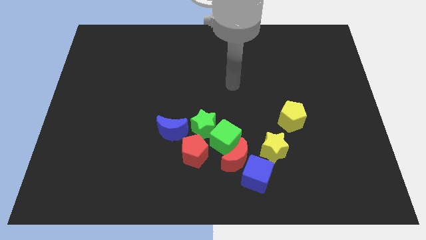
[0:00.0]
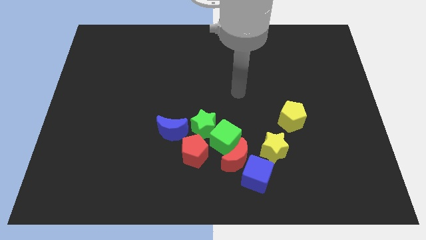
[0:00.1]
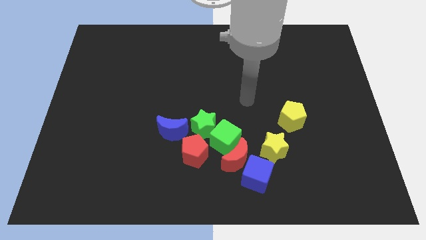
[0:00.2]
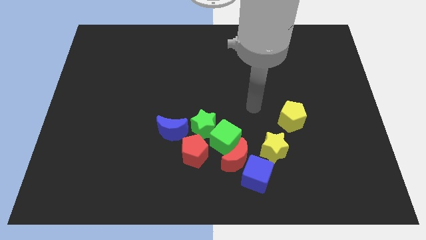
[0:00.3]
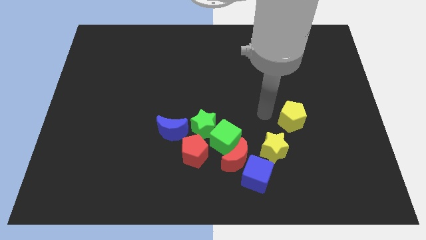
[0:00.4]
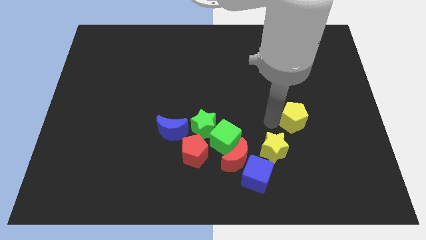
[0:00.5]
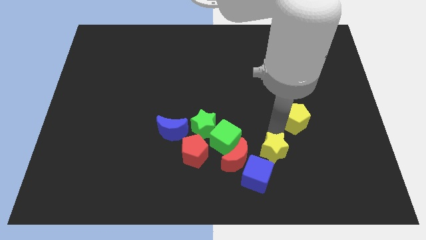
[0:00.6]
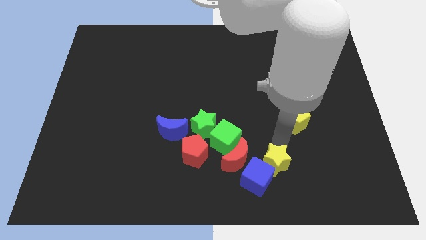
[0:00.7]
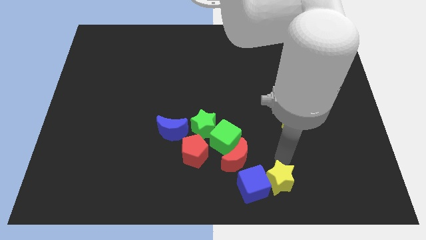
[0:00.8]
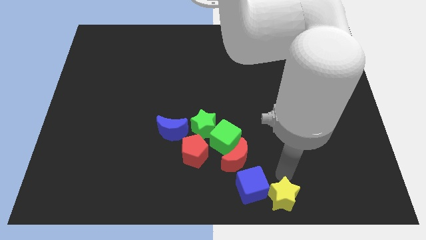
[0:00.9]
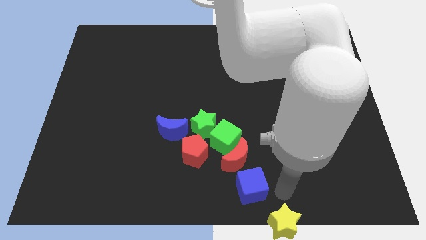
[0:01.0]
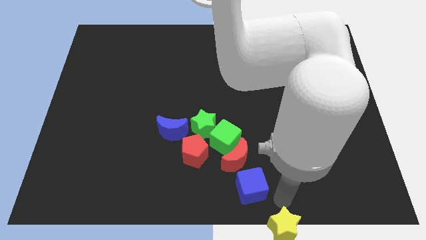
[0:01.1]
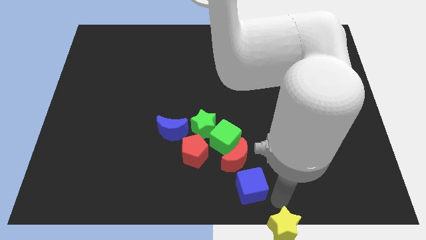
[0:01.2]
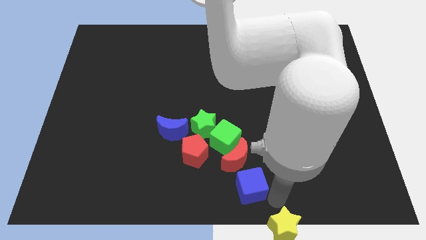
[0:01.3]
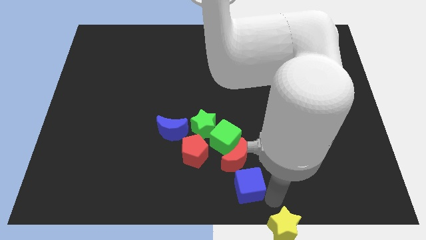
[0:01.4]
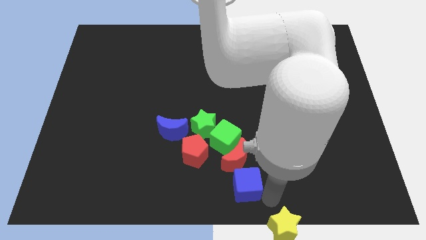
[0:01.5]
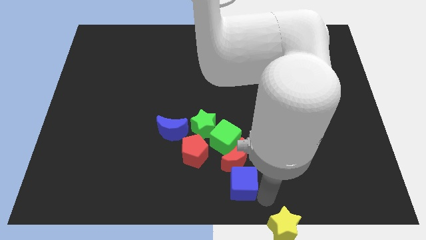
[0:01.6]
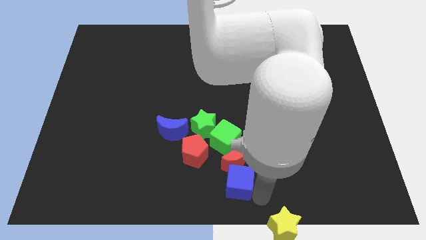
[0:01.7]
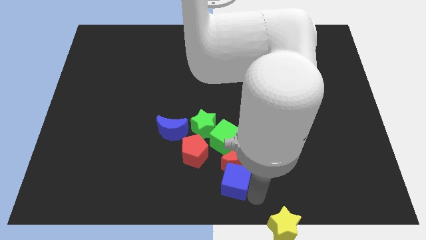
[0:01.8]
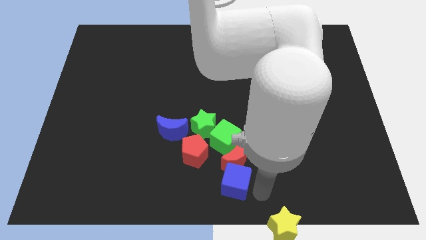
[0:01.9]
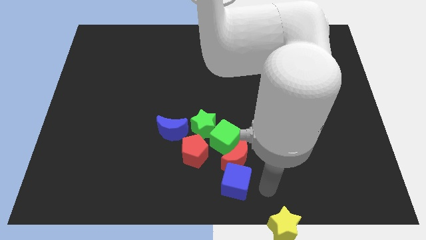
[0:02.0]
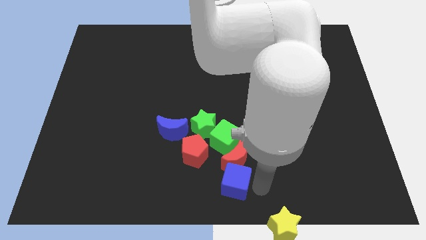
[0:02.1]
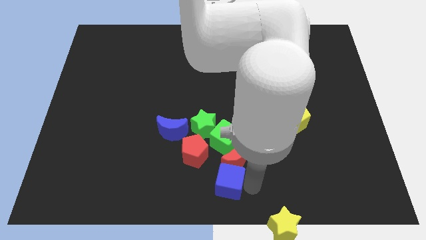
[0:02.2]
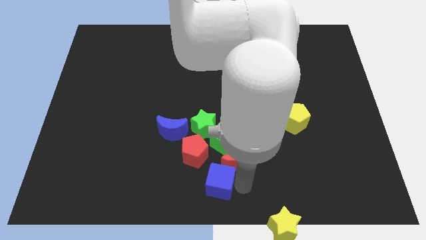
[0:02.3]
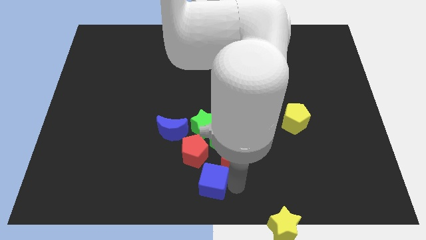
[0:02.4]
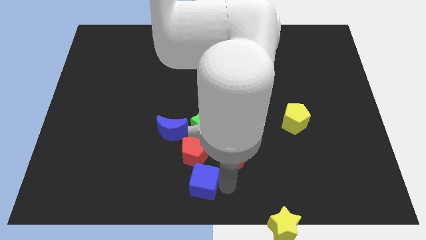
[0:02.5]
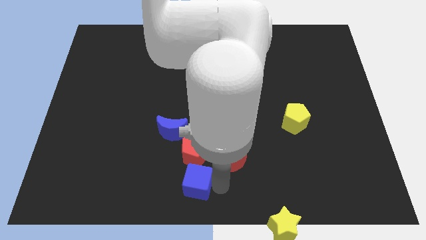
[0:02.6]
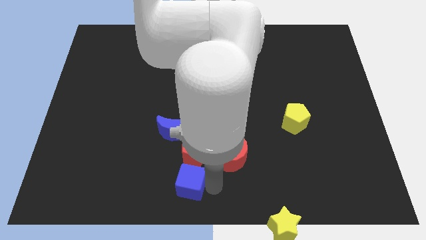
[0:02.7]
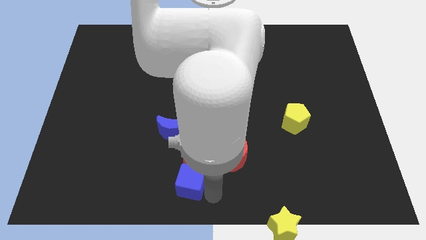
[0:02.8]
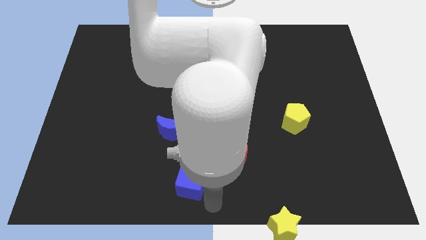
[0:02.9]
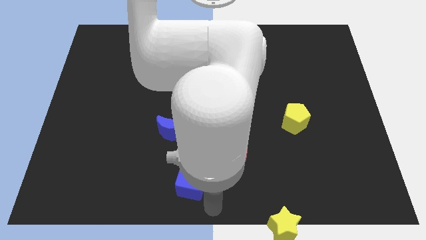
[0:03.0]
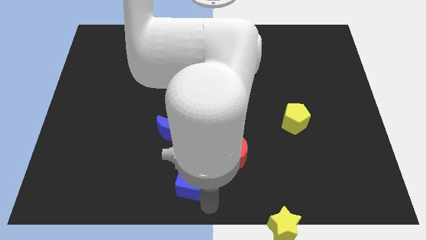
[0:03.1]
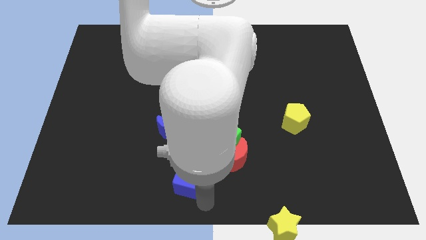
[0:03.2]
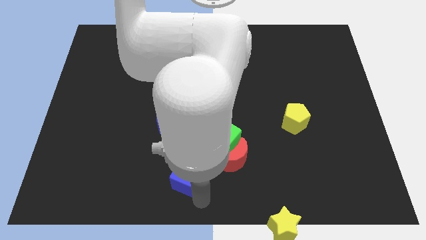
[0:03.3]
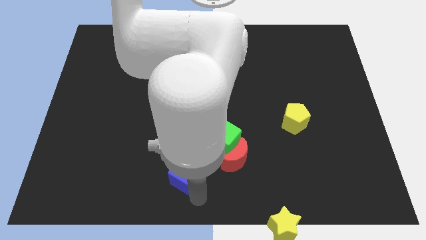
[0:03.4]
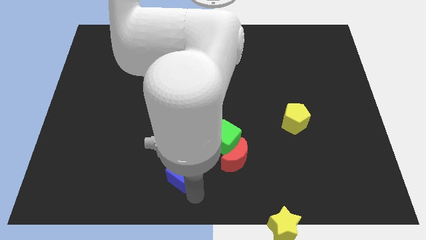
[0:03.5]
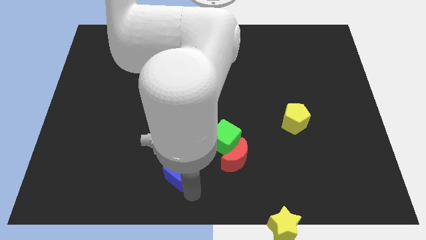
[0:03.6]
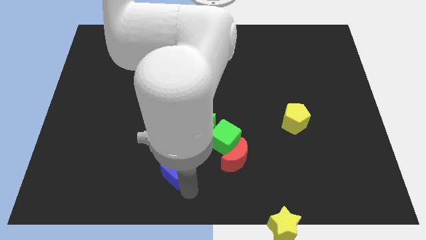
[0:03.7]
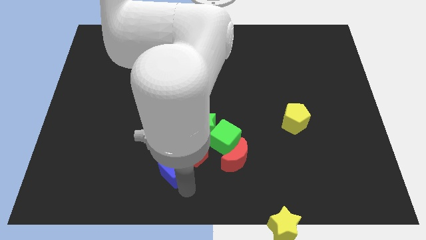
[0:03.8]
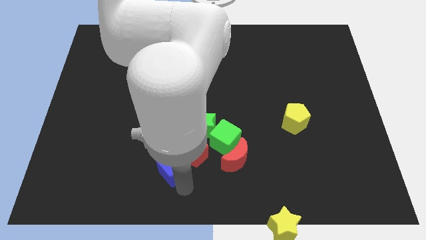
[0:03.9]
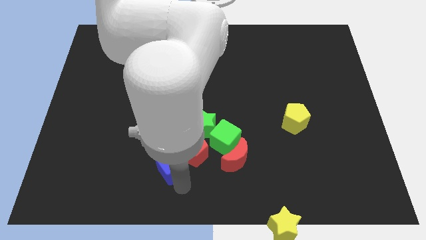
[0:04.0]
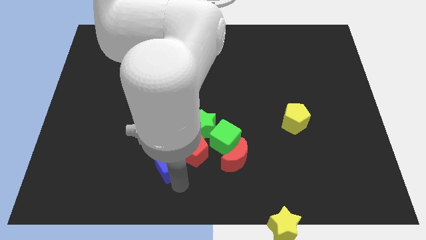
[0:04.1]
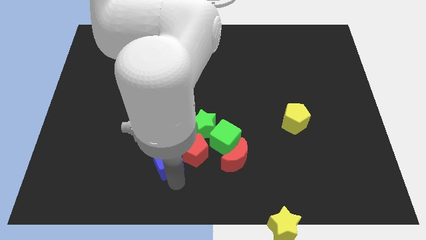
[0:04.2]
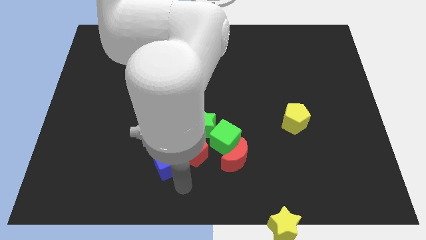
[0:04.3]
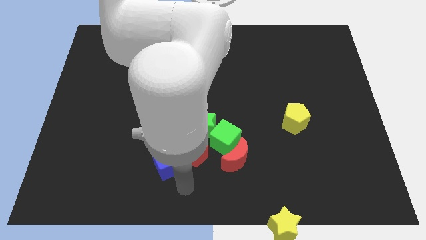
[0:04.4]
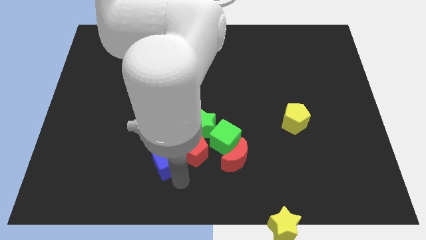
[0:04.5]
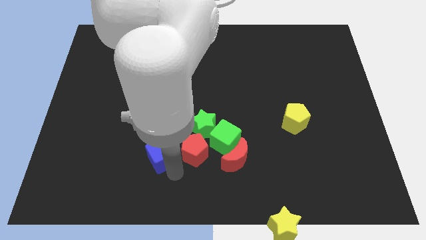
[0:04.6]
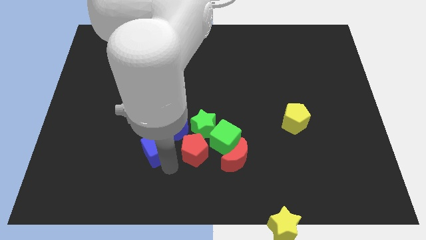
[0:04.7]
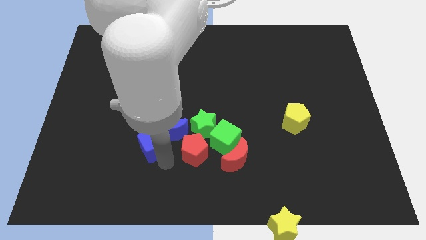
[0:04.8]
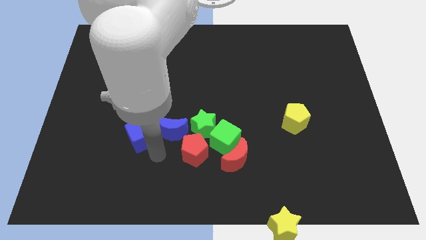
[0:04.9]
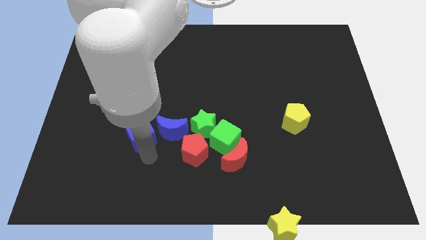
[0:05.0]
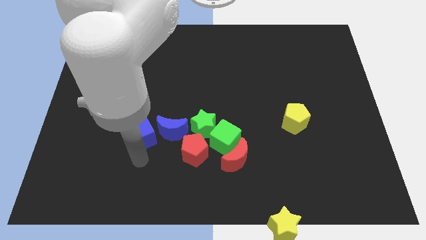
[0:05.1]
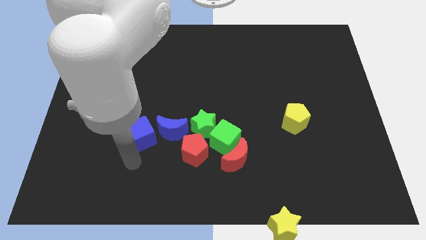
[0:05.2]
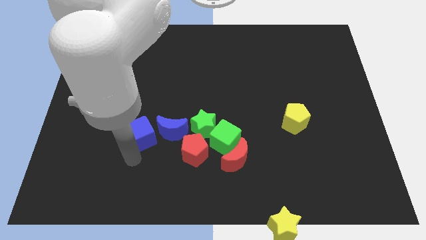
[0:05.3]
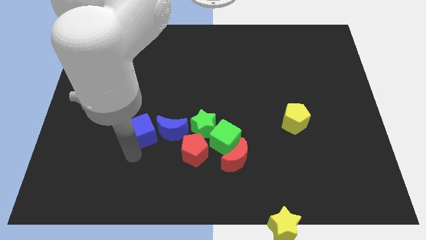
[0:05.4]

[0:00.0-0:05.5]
push the blue cube up and to the left

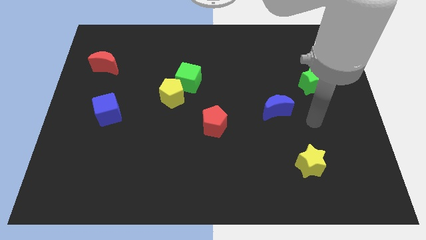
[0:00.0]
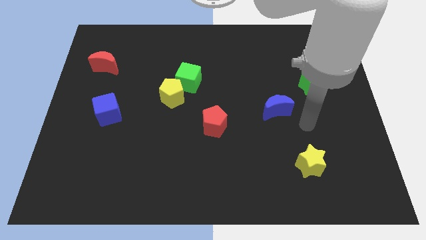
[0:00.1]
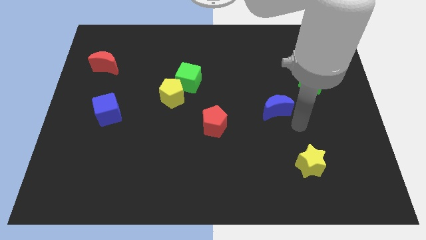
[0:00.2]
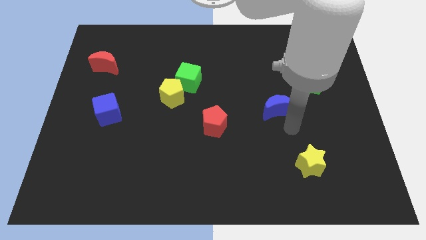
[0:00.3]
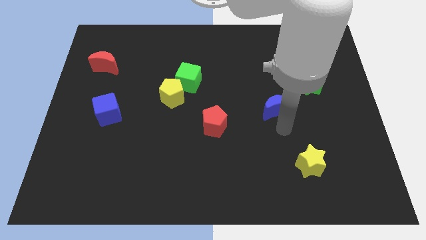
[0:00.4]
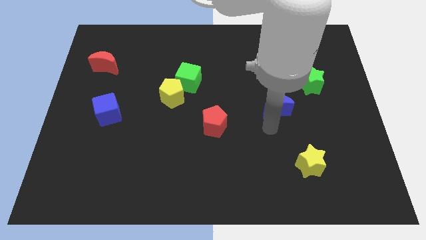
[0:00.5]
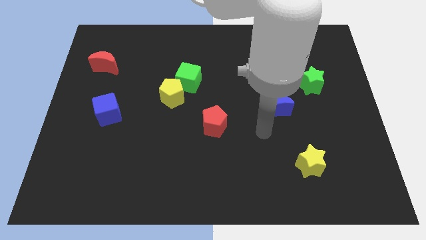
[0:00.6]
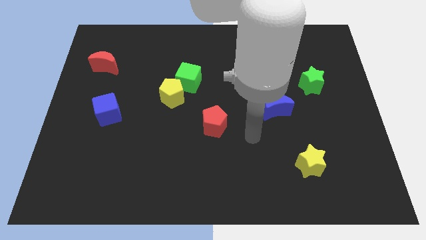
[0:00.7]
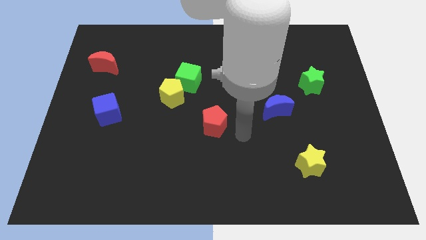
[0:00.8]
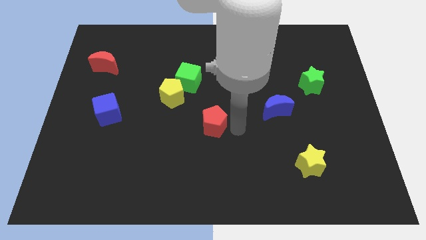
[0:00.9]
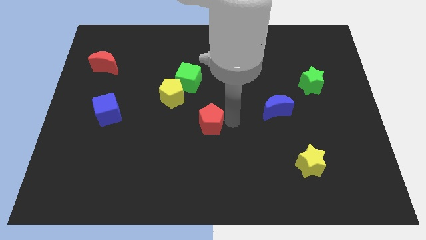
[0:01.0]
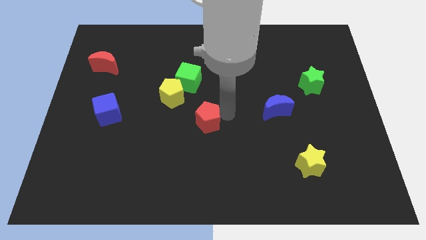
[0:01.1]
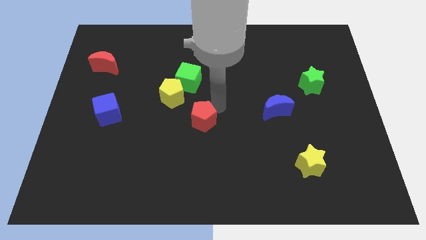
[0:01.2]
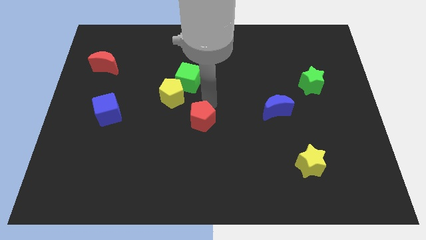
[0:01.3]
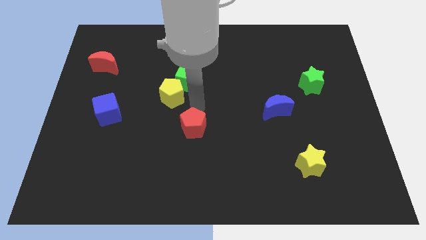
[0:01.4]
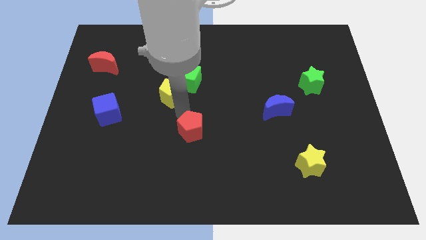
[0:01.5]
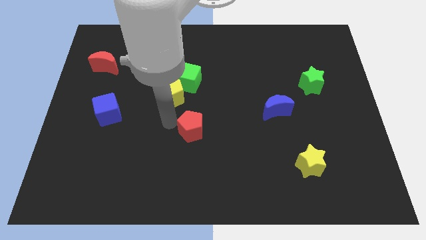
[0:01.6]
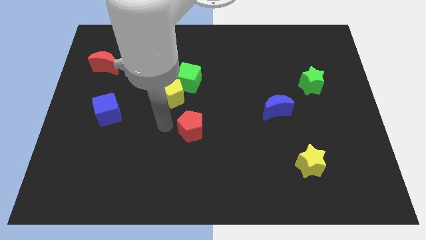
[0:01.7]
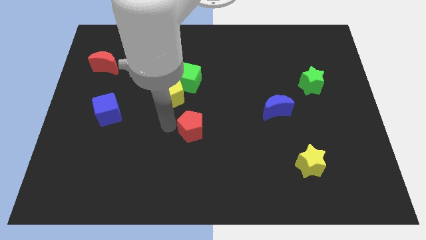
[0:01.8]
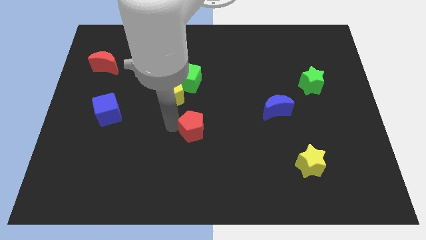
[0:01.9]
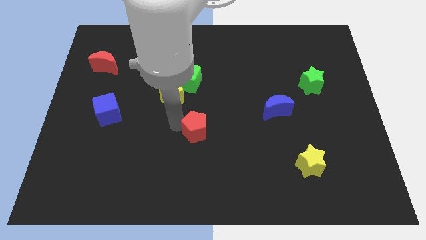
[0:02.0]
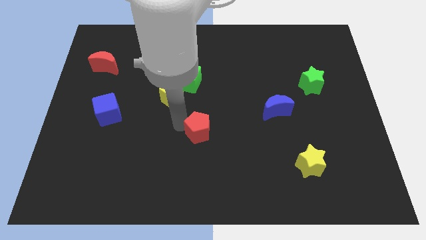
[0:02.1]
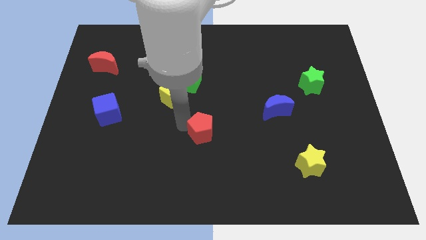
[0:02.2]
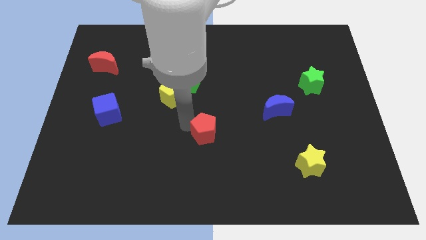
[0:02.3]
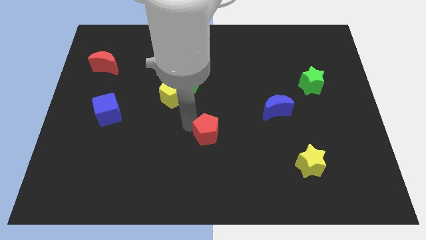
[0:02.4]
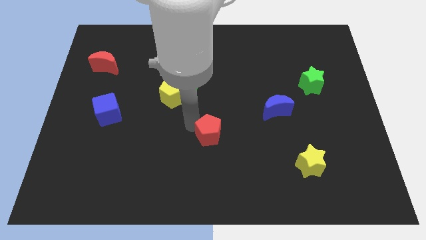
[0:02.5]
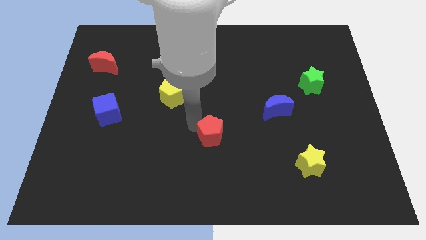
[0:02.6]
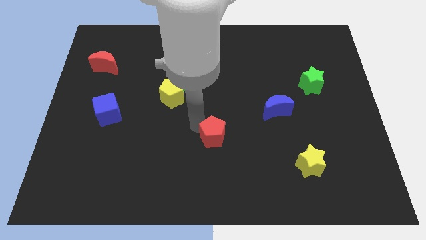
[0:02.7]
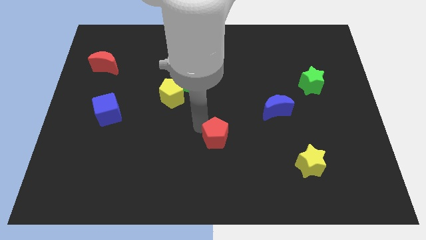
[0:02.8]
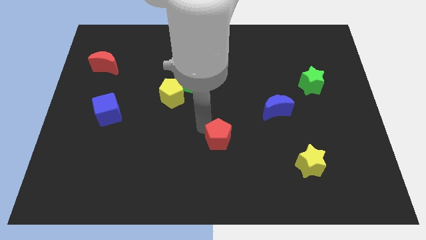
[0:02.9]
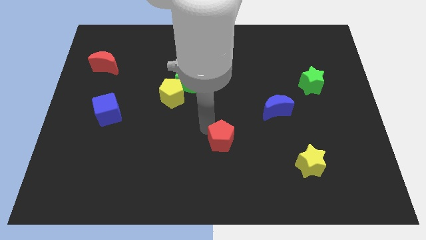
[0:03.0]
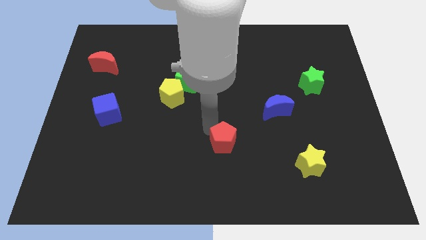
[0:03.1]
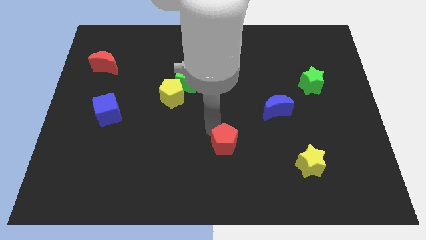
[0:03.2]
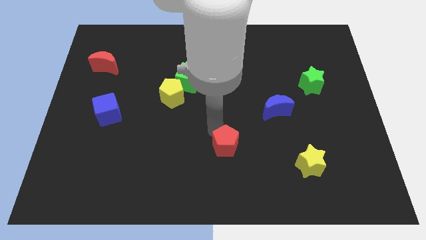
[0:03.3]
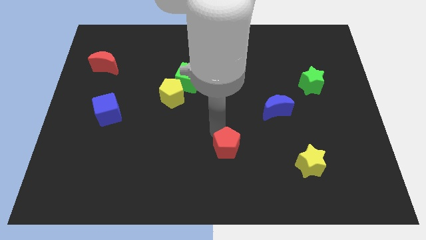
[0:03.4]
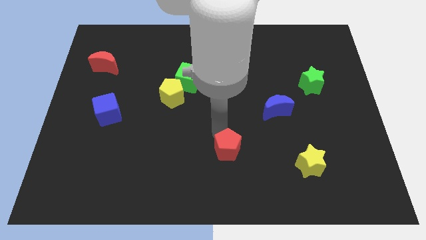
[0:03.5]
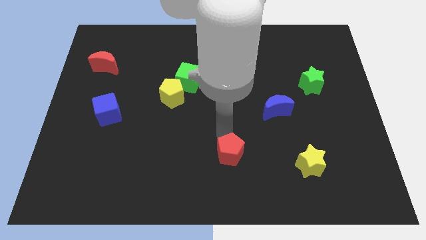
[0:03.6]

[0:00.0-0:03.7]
push the red pentagon a little bit downwards and to the right
